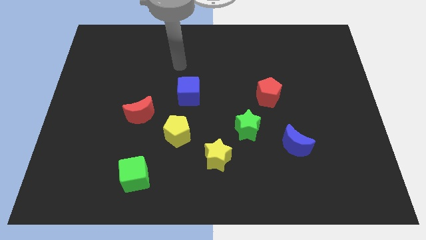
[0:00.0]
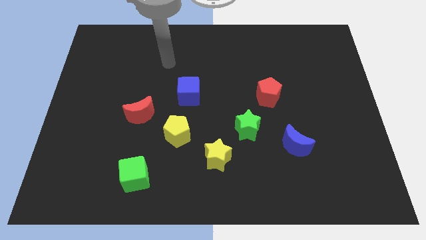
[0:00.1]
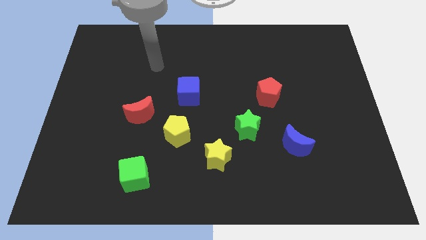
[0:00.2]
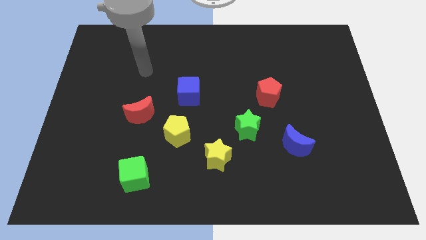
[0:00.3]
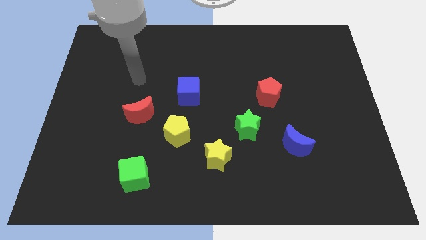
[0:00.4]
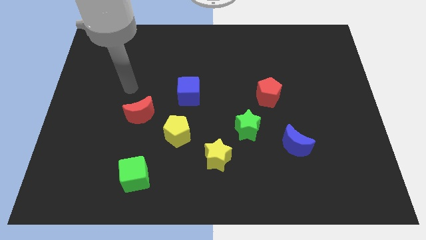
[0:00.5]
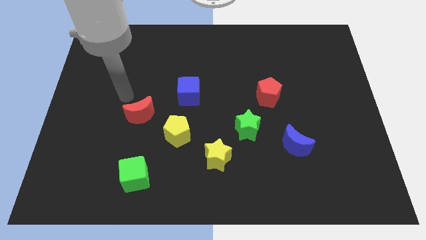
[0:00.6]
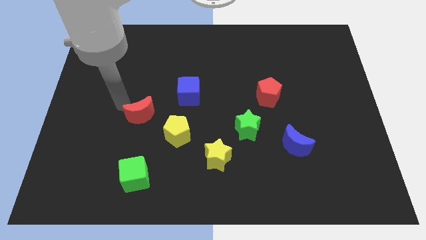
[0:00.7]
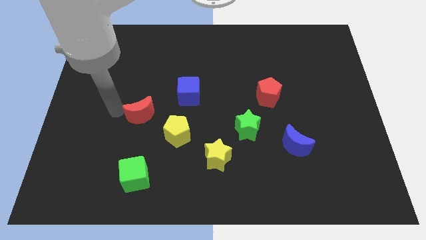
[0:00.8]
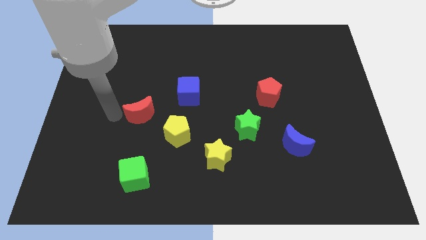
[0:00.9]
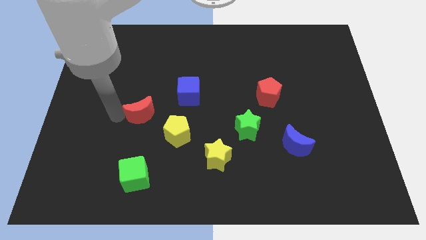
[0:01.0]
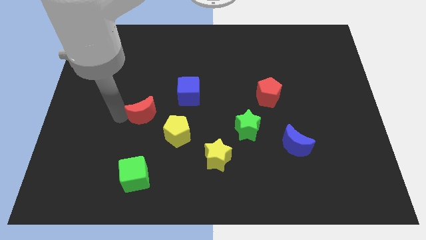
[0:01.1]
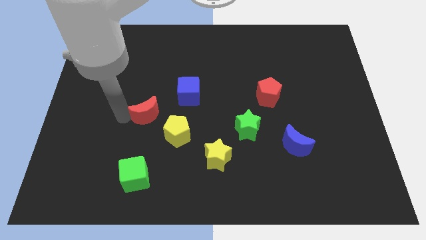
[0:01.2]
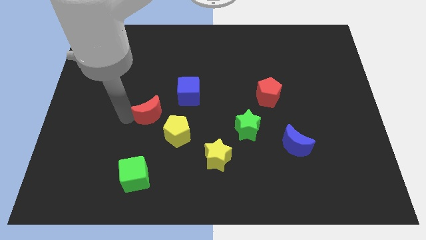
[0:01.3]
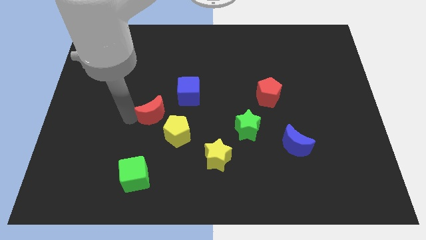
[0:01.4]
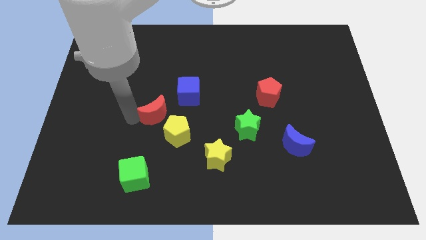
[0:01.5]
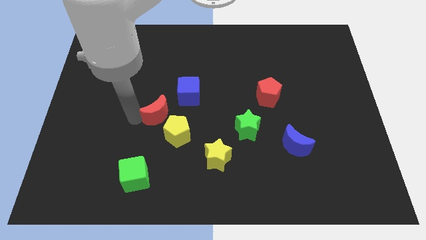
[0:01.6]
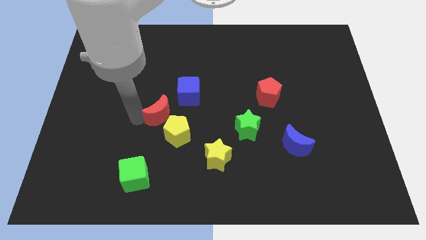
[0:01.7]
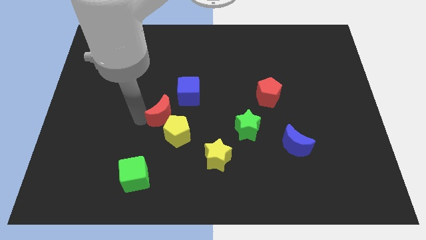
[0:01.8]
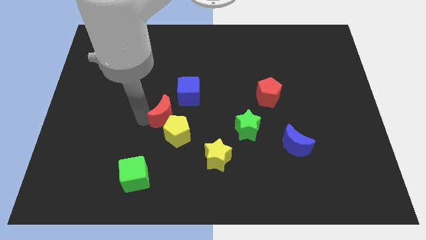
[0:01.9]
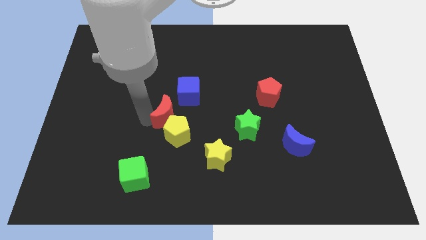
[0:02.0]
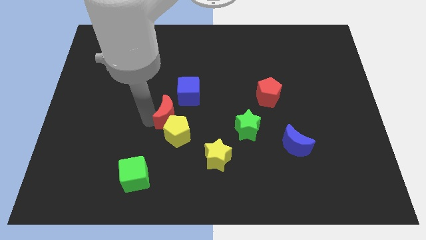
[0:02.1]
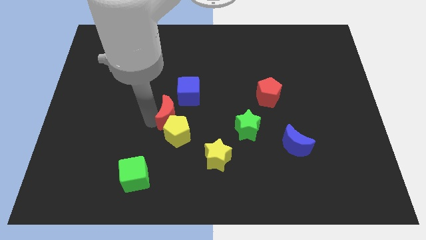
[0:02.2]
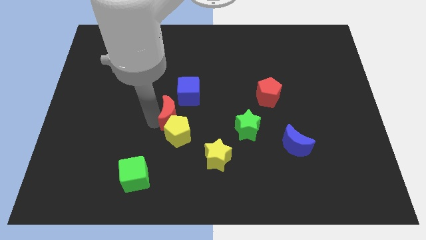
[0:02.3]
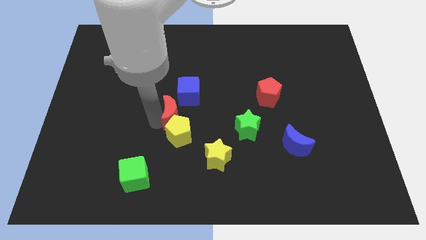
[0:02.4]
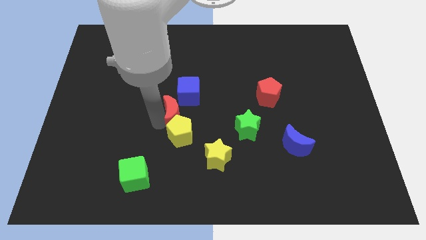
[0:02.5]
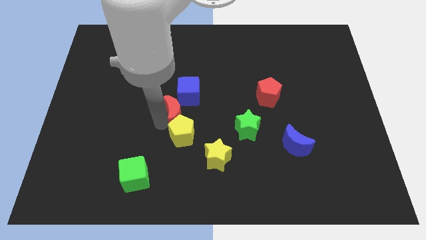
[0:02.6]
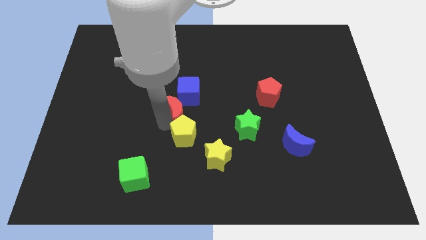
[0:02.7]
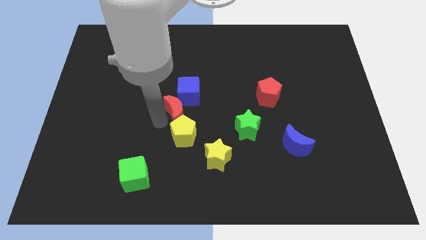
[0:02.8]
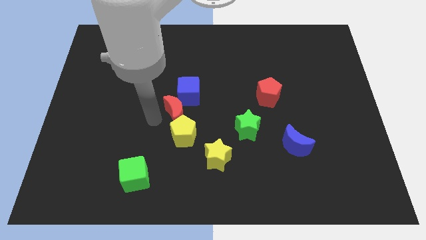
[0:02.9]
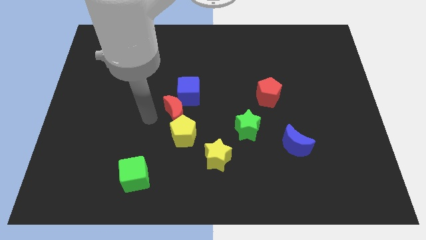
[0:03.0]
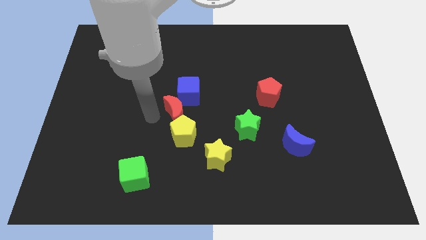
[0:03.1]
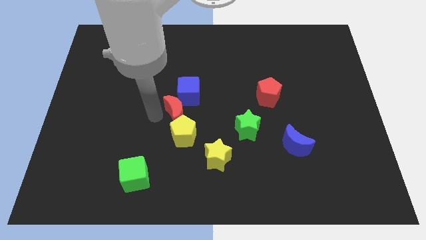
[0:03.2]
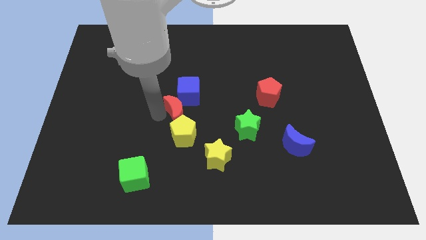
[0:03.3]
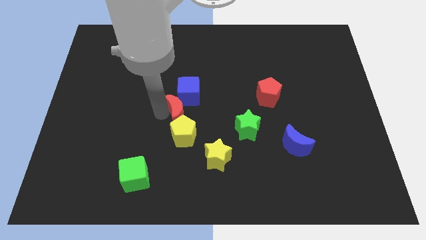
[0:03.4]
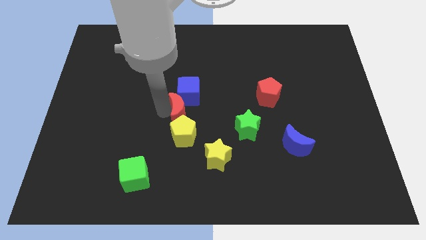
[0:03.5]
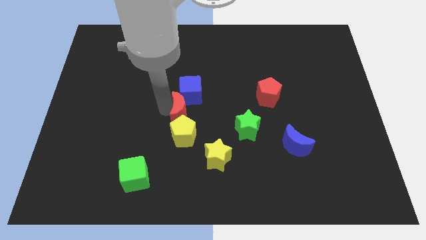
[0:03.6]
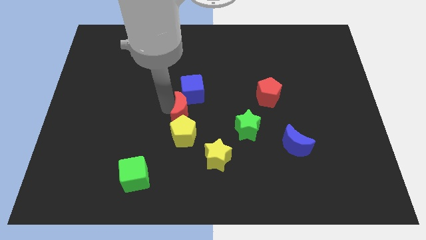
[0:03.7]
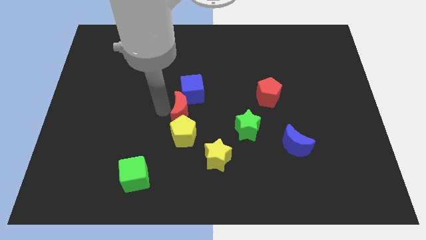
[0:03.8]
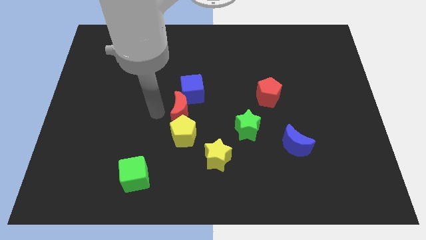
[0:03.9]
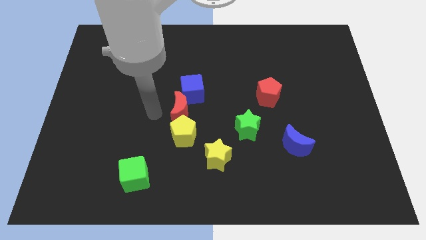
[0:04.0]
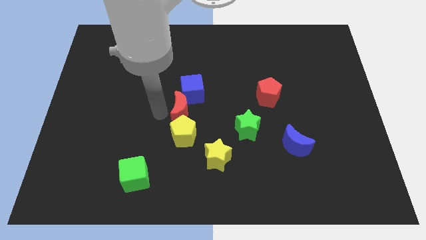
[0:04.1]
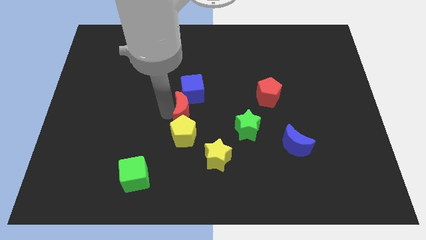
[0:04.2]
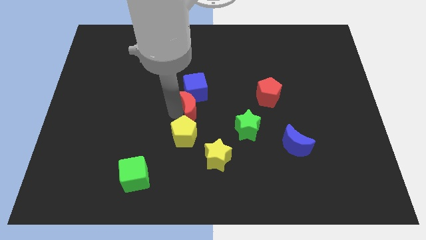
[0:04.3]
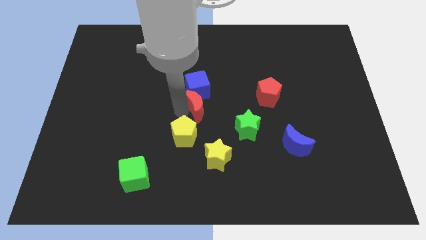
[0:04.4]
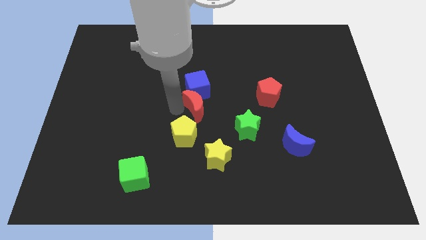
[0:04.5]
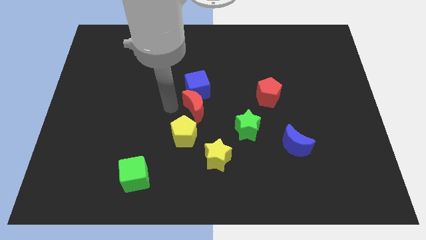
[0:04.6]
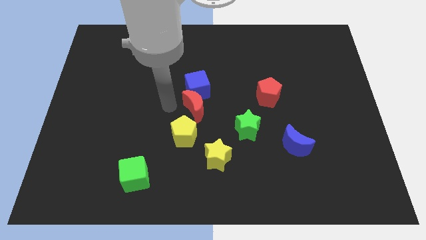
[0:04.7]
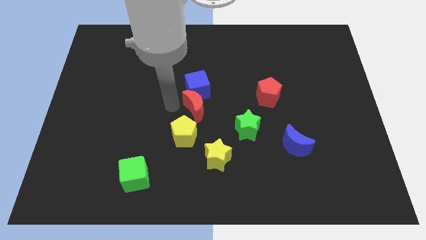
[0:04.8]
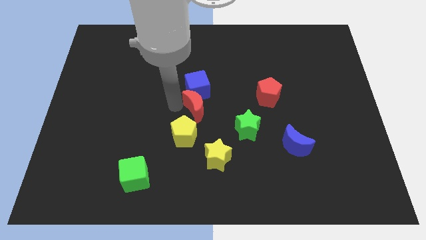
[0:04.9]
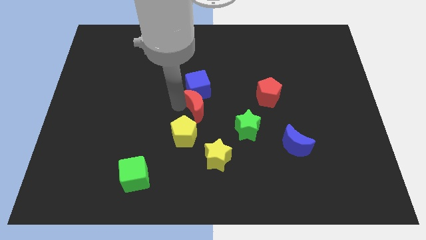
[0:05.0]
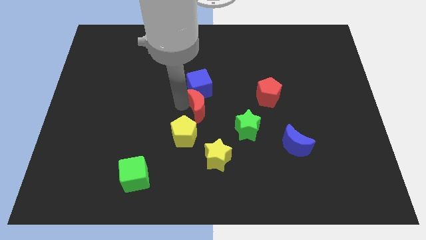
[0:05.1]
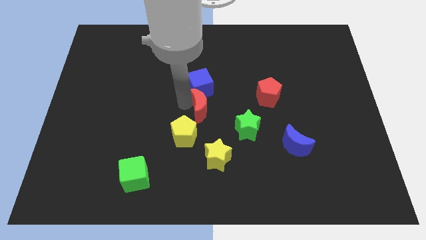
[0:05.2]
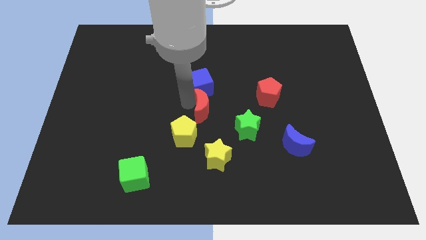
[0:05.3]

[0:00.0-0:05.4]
move the red moon diagonally up and to the left of the green star

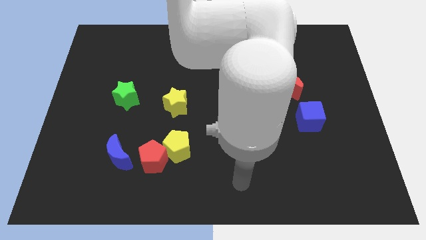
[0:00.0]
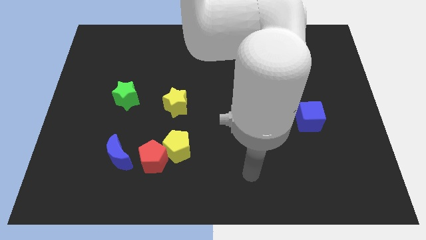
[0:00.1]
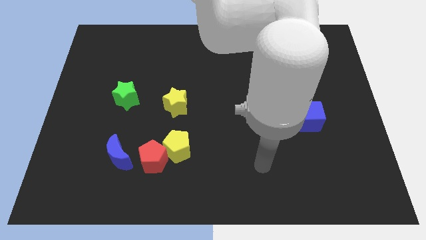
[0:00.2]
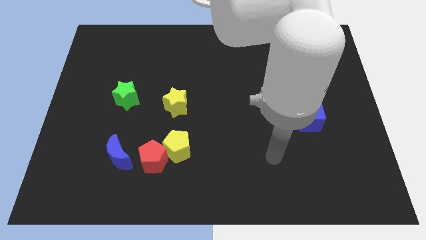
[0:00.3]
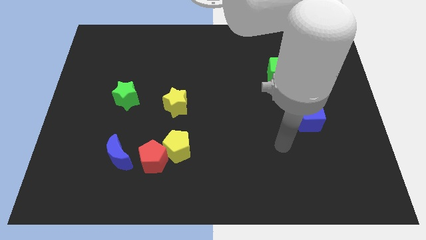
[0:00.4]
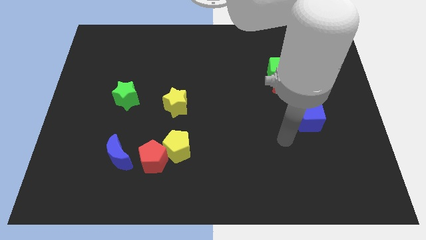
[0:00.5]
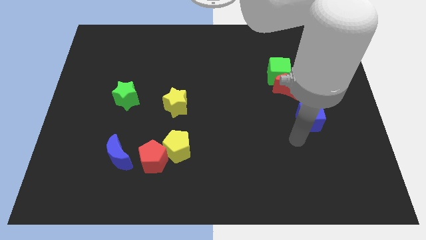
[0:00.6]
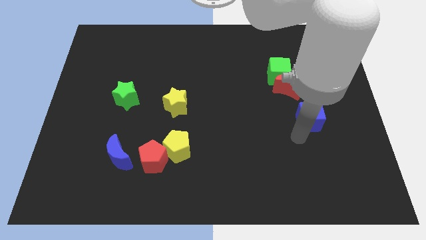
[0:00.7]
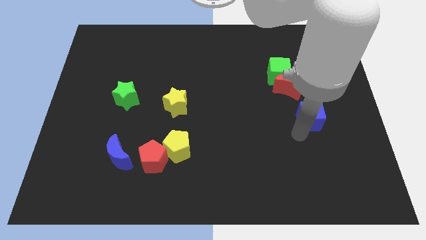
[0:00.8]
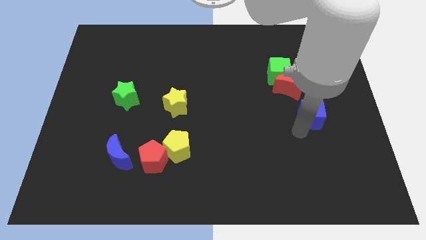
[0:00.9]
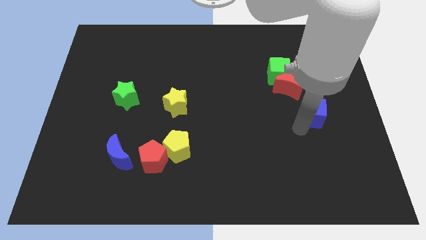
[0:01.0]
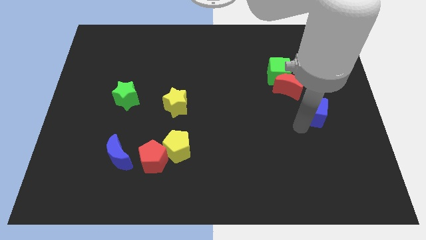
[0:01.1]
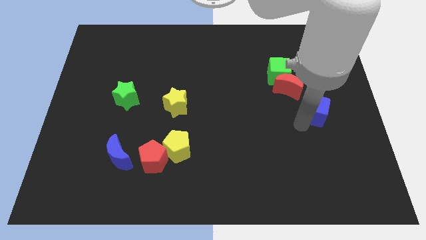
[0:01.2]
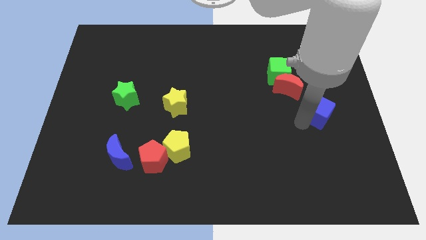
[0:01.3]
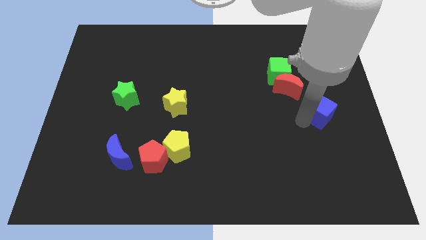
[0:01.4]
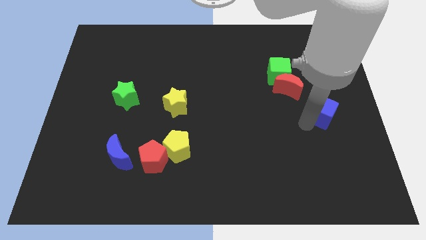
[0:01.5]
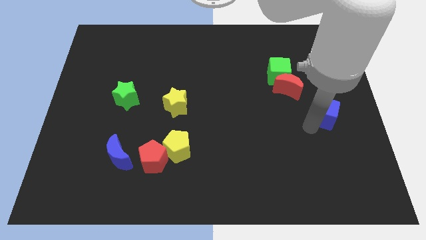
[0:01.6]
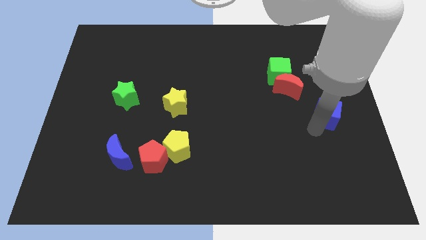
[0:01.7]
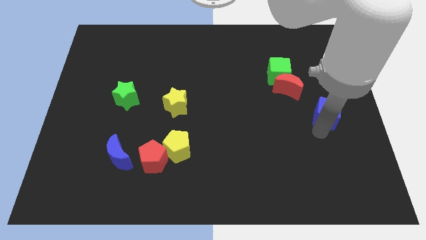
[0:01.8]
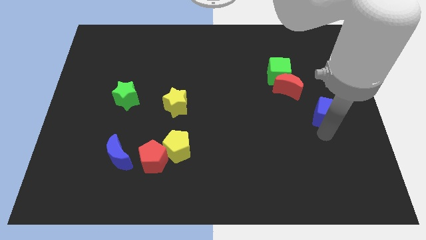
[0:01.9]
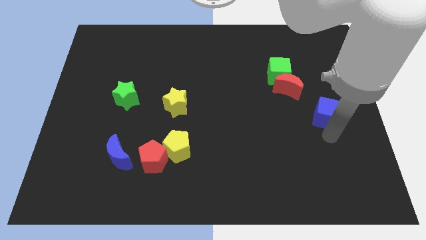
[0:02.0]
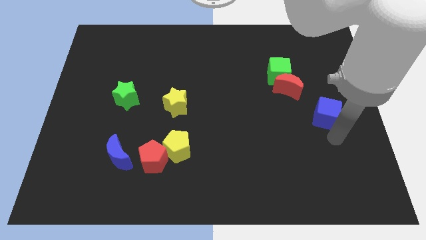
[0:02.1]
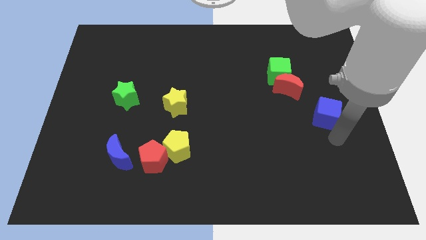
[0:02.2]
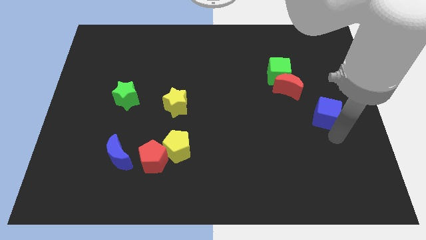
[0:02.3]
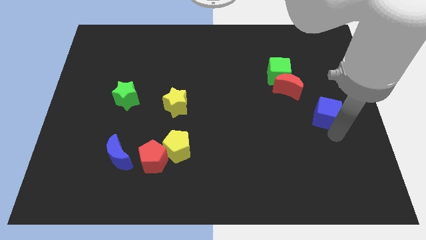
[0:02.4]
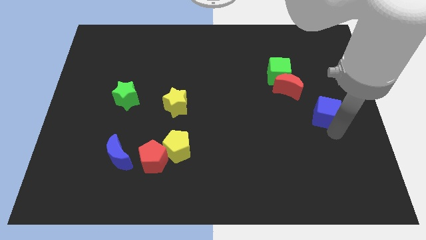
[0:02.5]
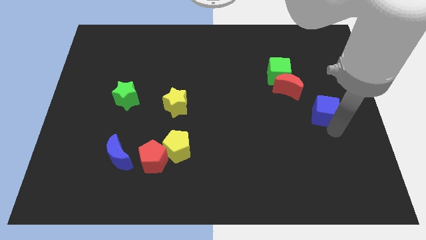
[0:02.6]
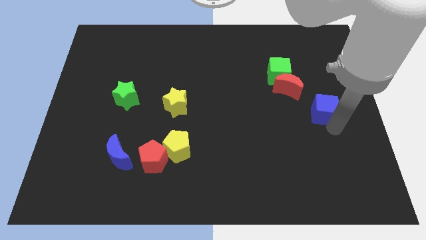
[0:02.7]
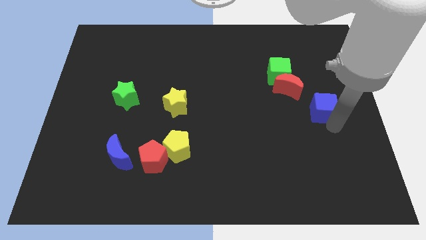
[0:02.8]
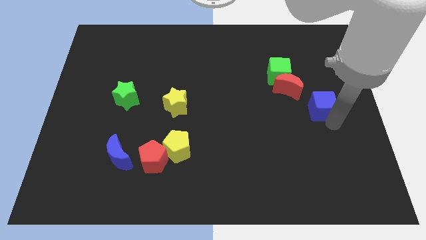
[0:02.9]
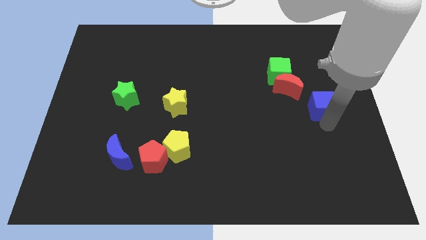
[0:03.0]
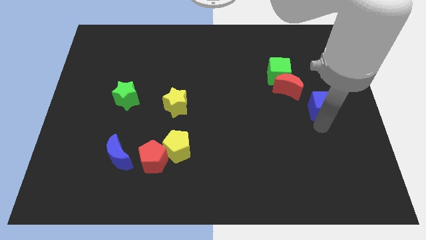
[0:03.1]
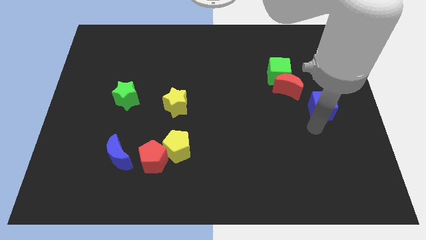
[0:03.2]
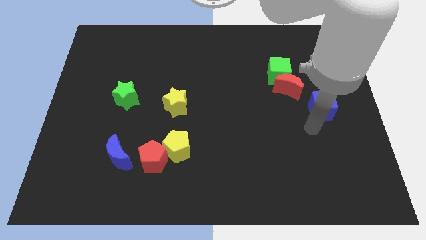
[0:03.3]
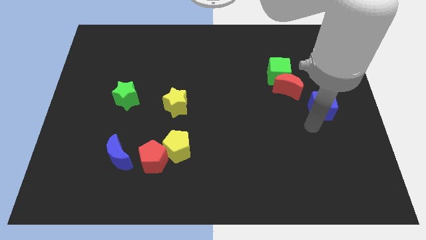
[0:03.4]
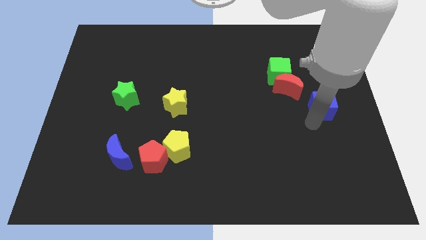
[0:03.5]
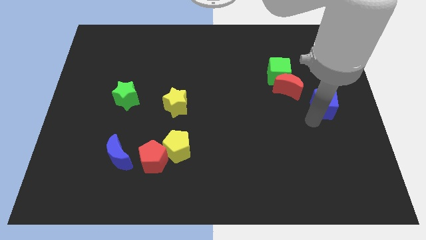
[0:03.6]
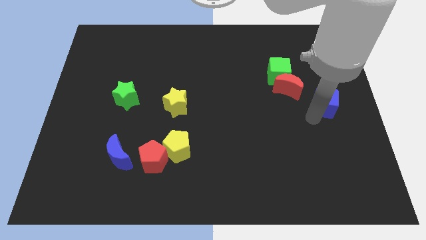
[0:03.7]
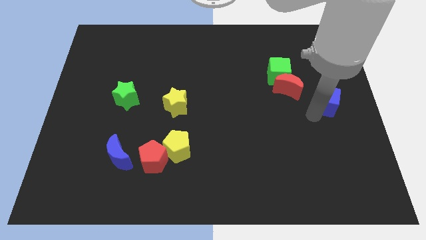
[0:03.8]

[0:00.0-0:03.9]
move the blue cube just right of the red moon
